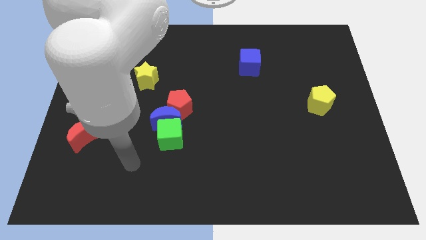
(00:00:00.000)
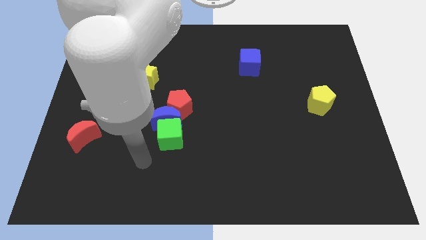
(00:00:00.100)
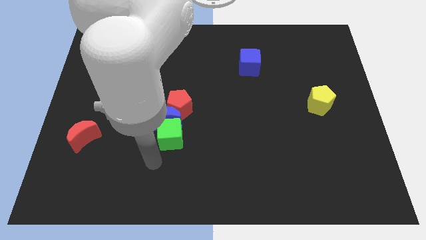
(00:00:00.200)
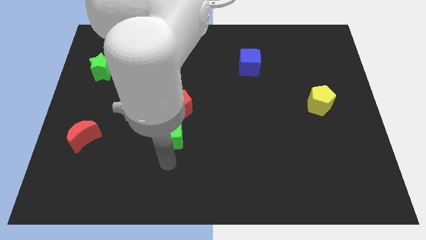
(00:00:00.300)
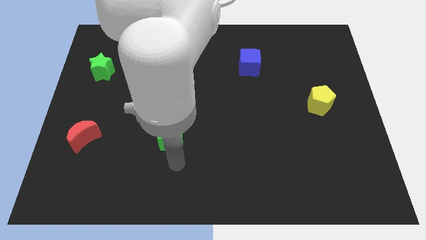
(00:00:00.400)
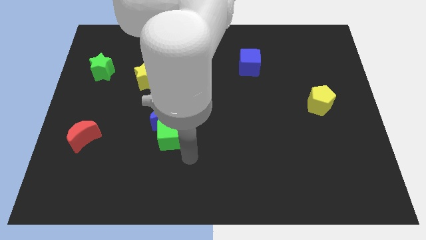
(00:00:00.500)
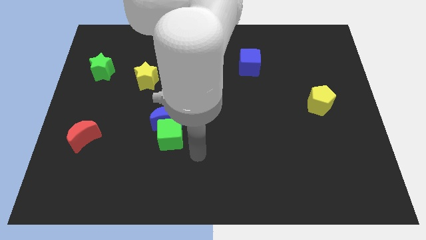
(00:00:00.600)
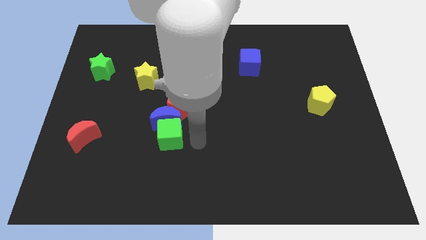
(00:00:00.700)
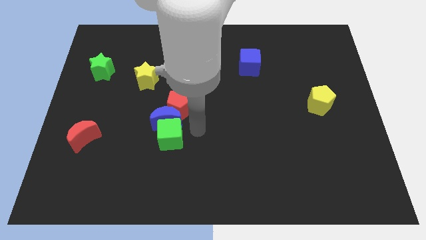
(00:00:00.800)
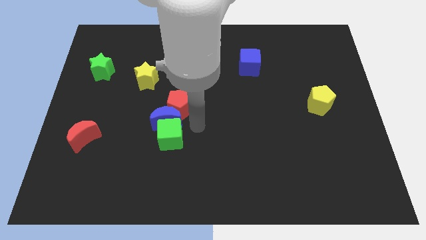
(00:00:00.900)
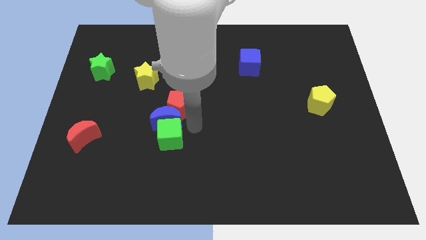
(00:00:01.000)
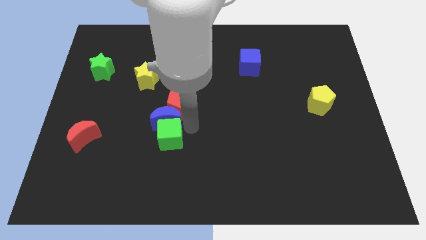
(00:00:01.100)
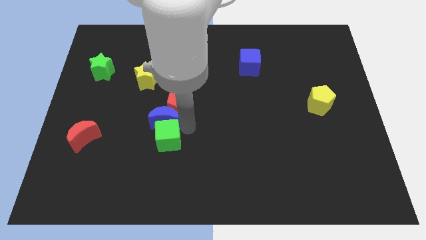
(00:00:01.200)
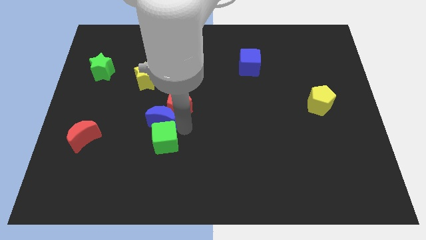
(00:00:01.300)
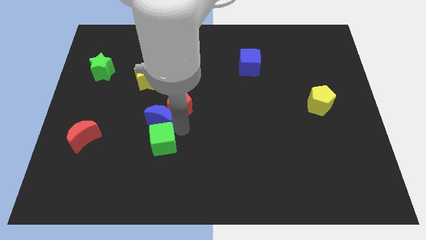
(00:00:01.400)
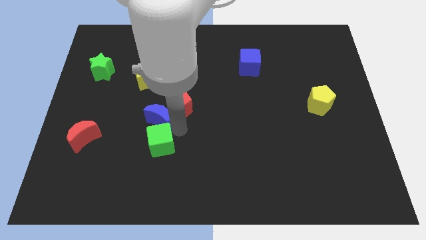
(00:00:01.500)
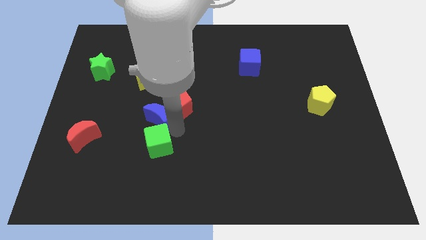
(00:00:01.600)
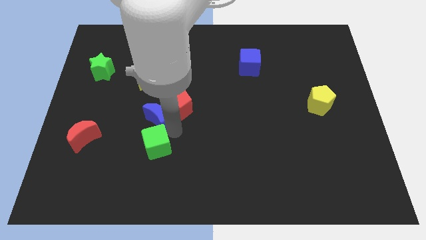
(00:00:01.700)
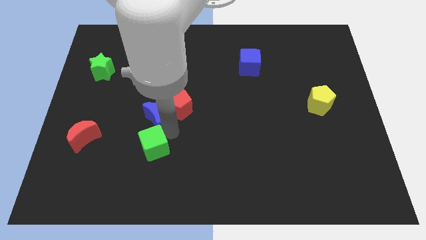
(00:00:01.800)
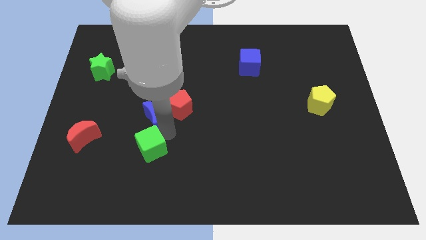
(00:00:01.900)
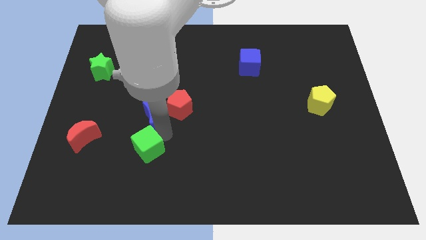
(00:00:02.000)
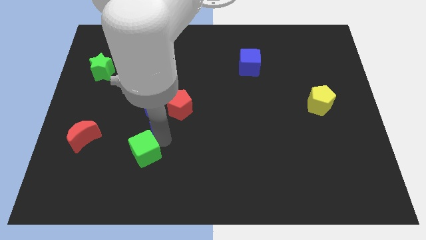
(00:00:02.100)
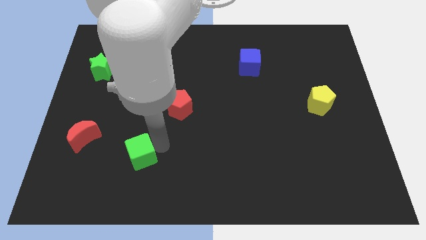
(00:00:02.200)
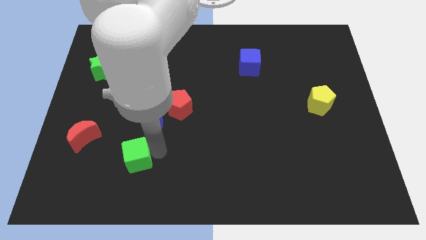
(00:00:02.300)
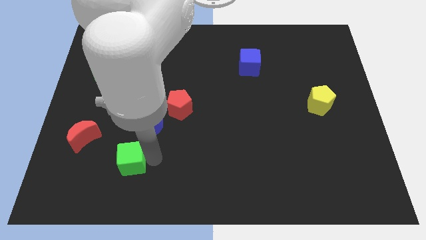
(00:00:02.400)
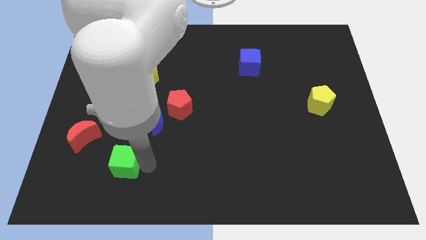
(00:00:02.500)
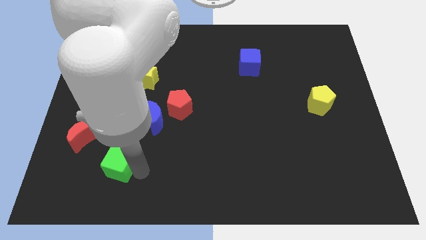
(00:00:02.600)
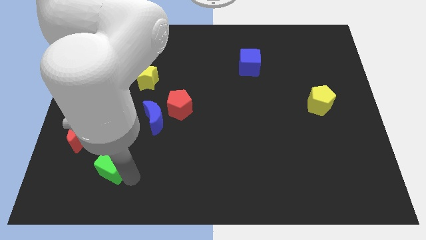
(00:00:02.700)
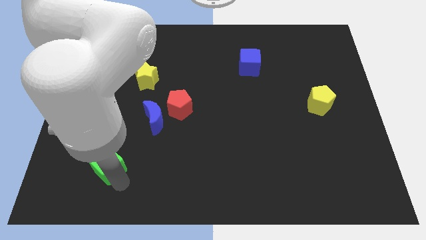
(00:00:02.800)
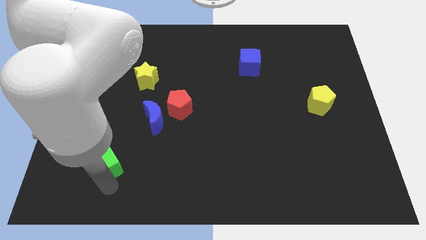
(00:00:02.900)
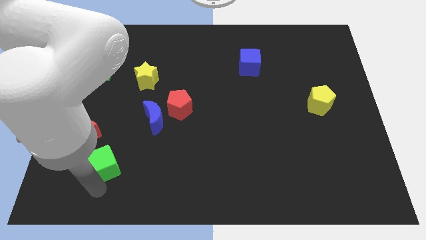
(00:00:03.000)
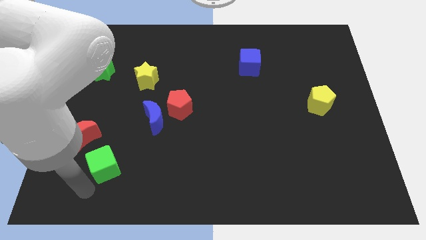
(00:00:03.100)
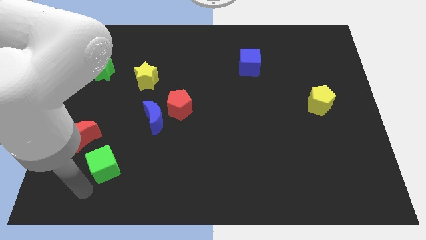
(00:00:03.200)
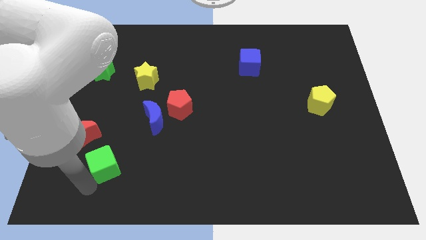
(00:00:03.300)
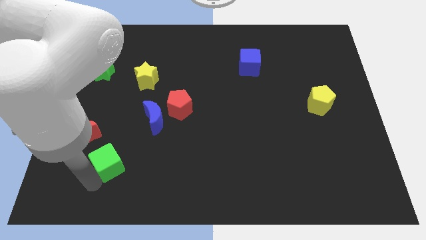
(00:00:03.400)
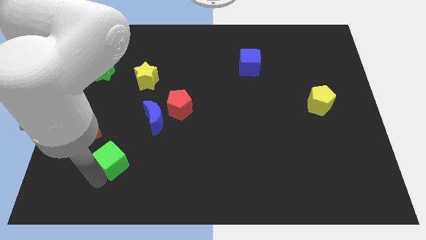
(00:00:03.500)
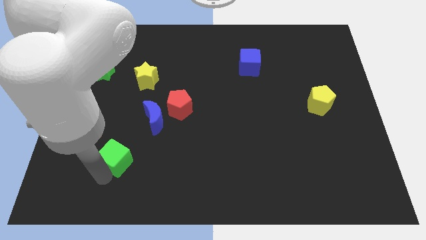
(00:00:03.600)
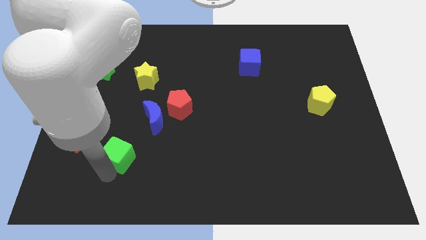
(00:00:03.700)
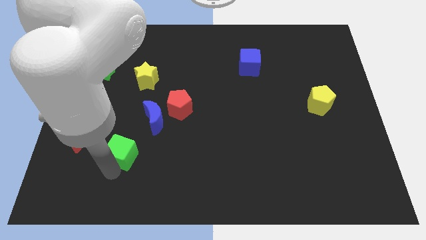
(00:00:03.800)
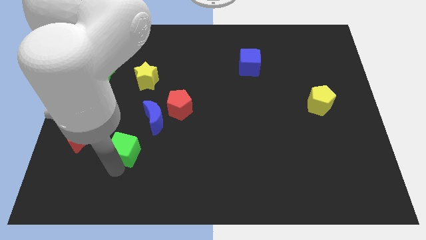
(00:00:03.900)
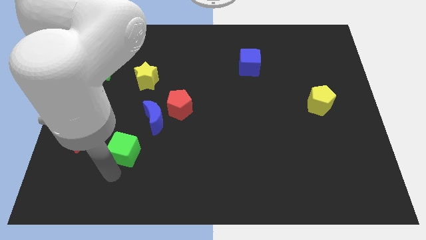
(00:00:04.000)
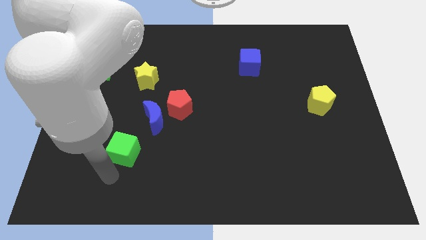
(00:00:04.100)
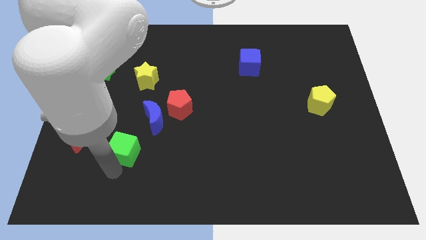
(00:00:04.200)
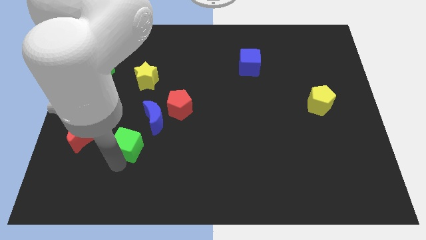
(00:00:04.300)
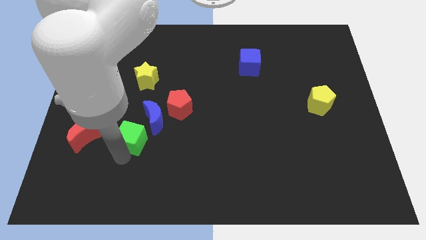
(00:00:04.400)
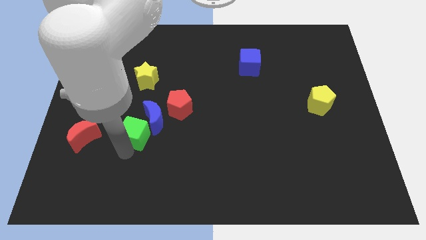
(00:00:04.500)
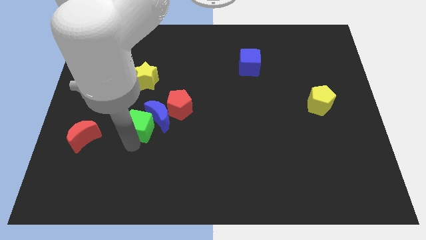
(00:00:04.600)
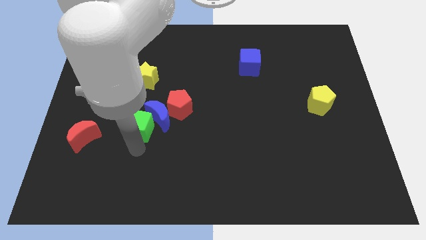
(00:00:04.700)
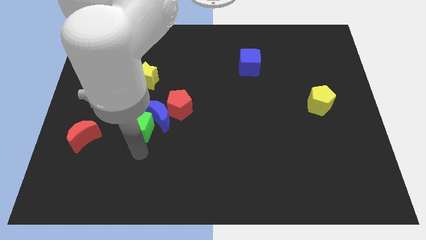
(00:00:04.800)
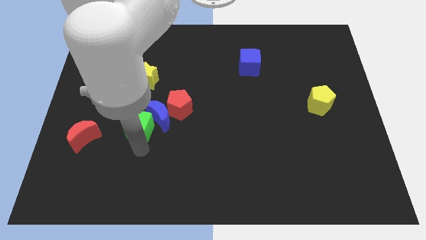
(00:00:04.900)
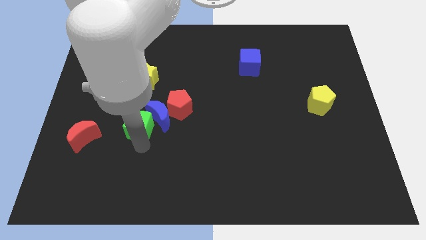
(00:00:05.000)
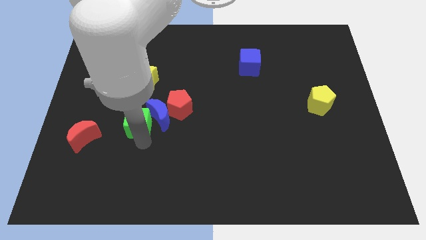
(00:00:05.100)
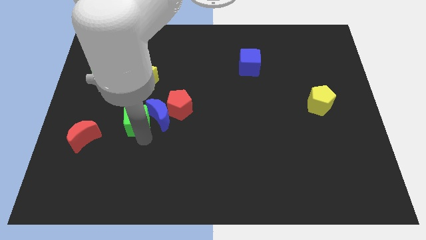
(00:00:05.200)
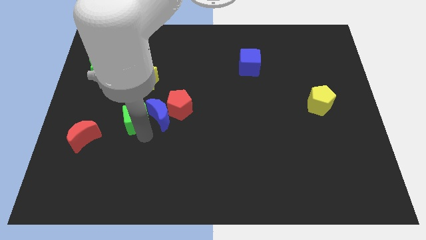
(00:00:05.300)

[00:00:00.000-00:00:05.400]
slide the green cube diagonally up and to the left of the blue moon

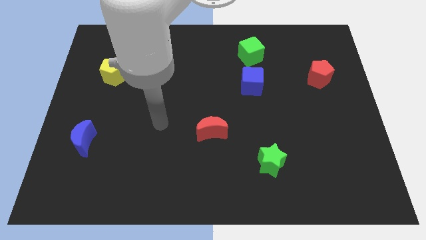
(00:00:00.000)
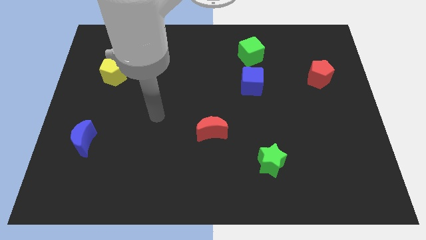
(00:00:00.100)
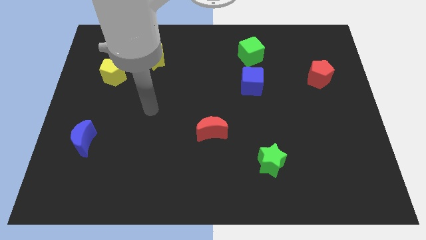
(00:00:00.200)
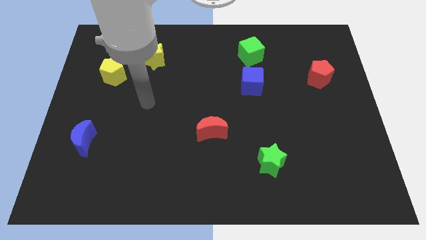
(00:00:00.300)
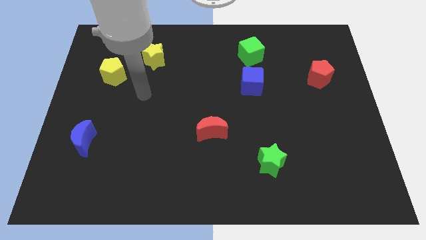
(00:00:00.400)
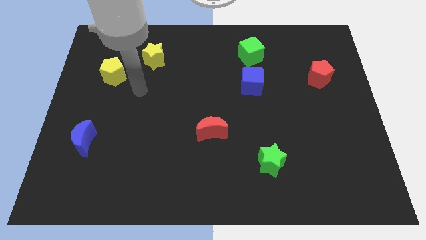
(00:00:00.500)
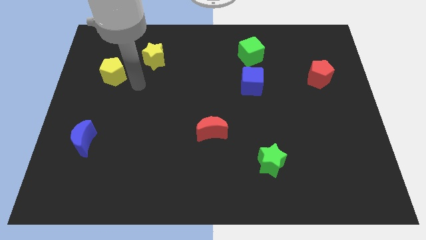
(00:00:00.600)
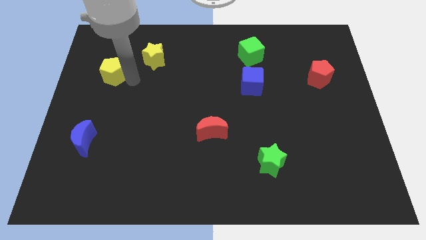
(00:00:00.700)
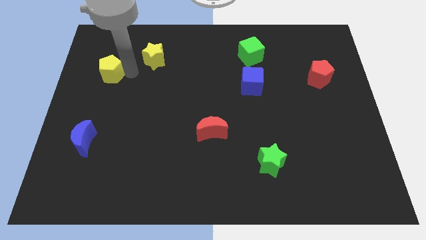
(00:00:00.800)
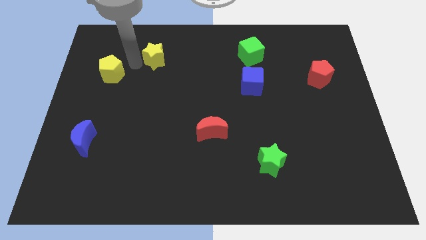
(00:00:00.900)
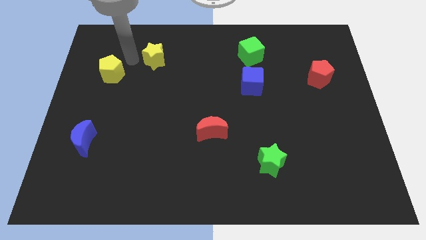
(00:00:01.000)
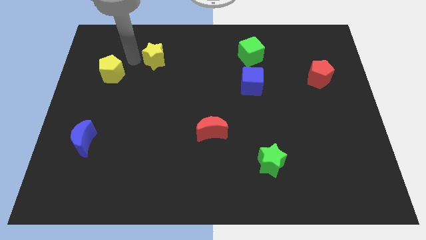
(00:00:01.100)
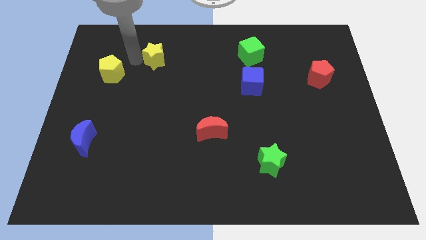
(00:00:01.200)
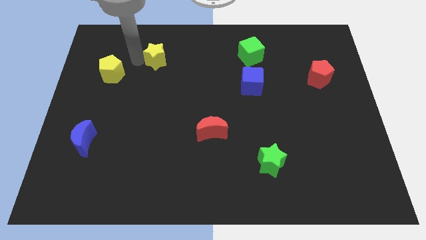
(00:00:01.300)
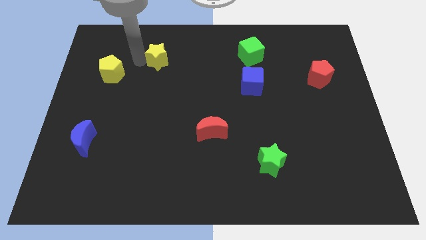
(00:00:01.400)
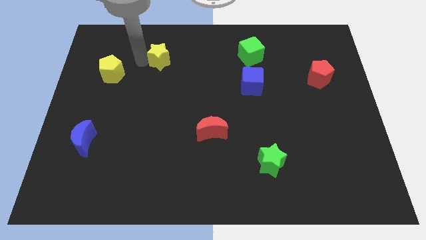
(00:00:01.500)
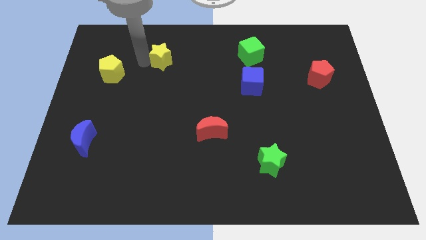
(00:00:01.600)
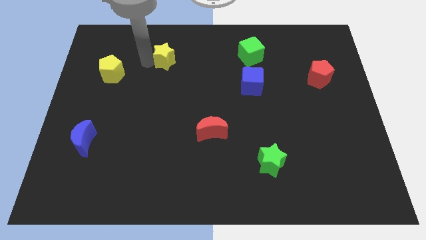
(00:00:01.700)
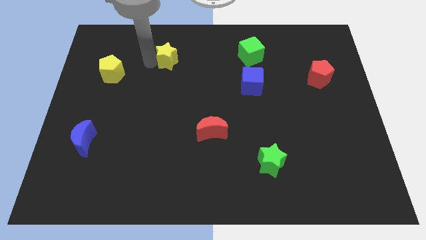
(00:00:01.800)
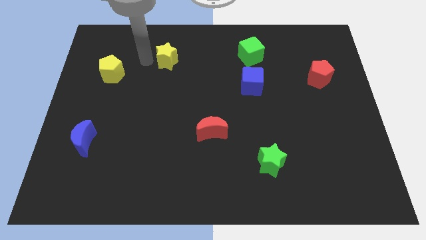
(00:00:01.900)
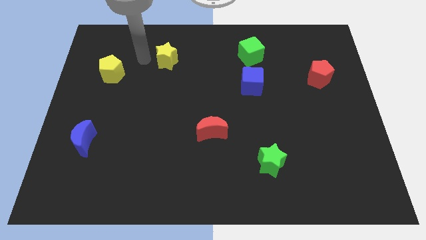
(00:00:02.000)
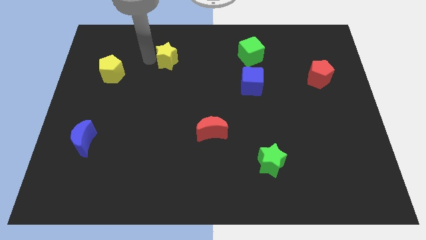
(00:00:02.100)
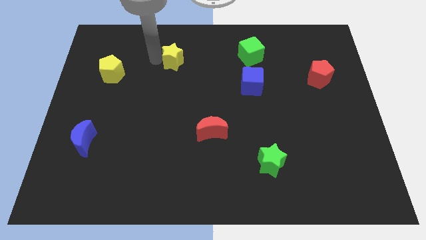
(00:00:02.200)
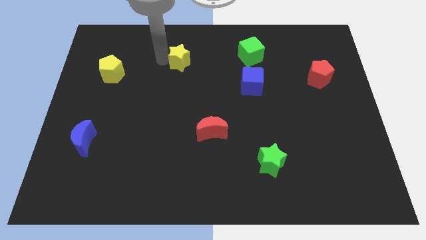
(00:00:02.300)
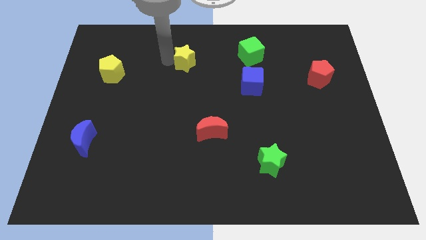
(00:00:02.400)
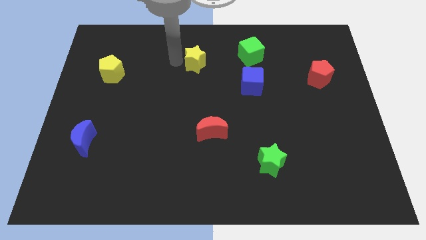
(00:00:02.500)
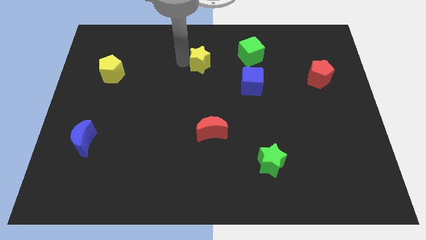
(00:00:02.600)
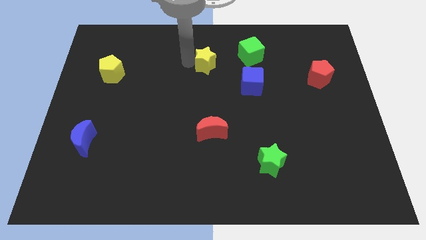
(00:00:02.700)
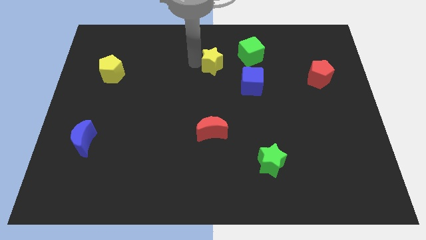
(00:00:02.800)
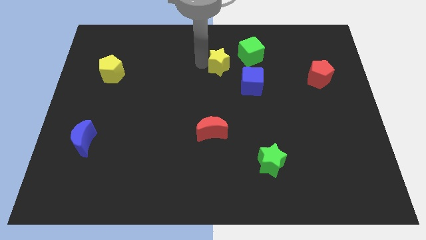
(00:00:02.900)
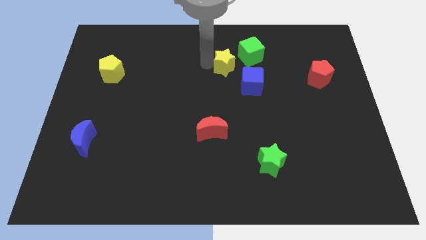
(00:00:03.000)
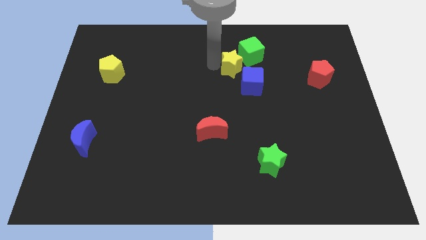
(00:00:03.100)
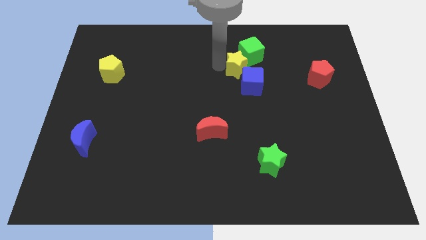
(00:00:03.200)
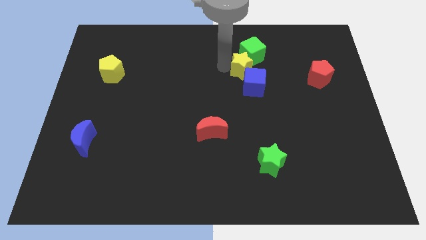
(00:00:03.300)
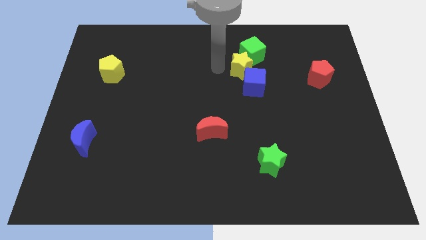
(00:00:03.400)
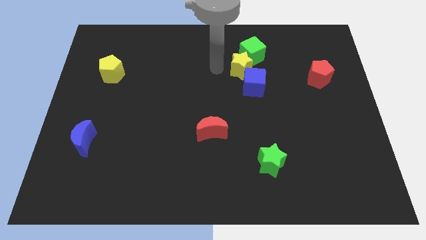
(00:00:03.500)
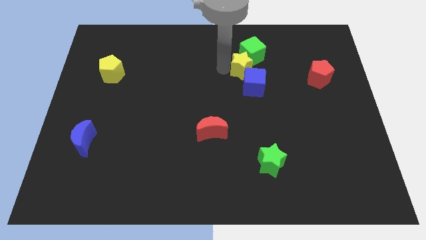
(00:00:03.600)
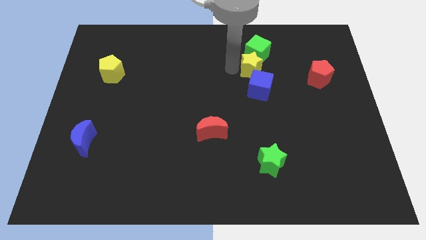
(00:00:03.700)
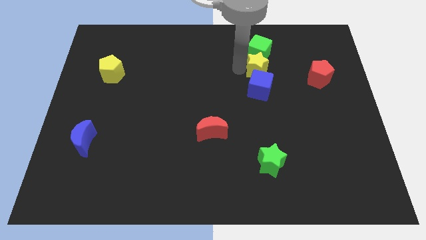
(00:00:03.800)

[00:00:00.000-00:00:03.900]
put the yellow star to the bottom right side of the green cube
